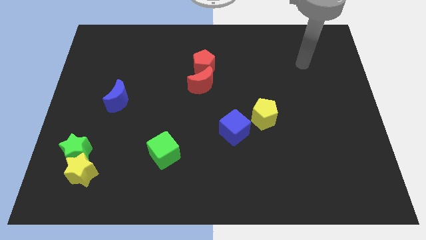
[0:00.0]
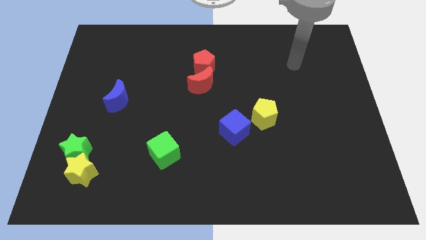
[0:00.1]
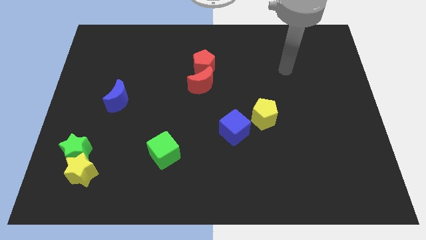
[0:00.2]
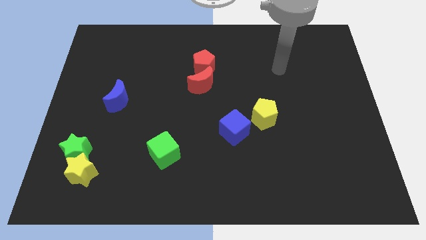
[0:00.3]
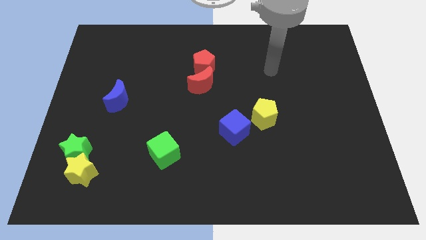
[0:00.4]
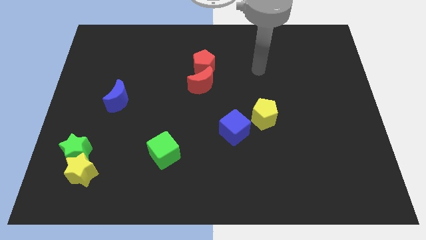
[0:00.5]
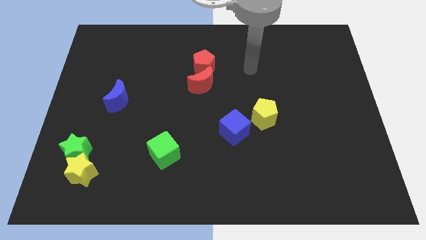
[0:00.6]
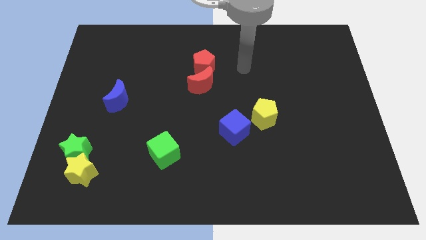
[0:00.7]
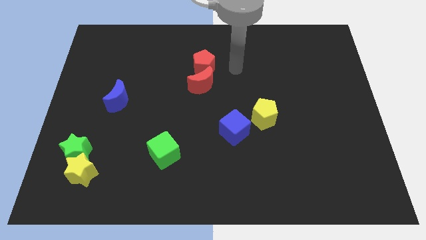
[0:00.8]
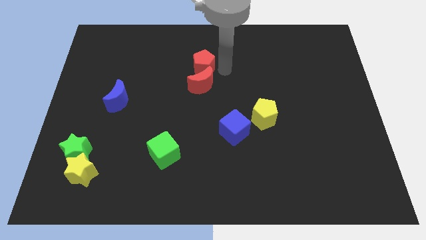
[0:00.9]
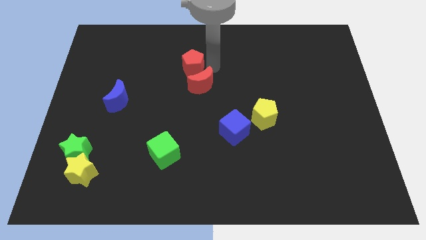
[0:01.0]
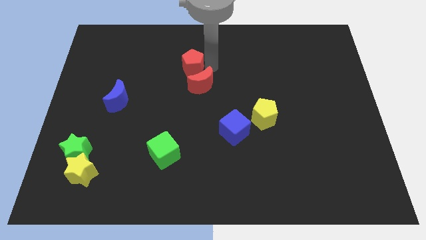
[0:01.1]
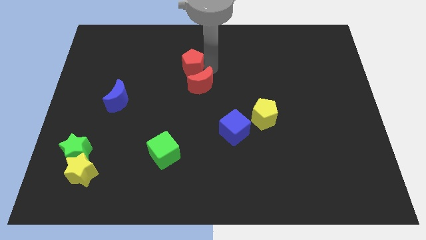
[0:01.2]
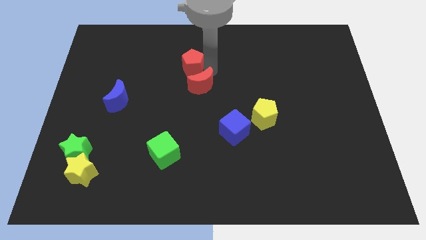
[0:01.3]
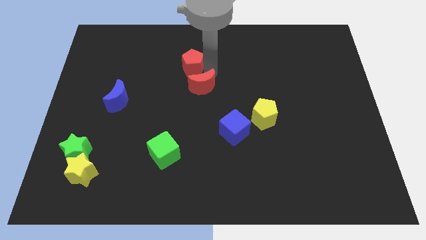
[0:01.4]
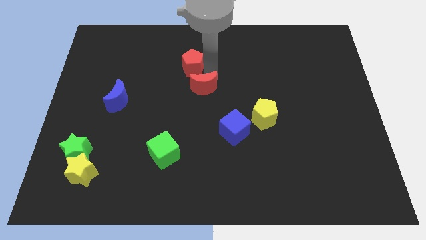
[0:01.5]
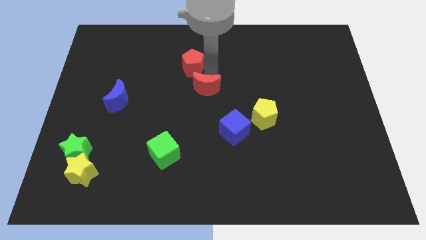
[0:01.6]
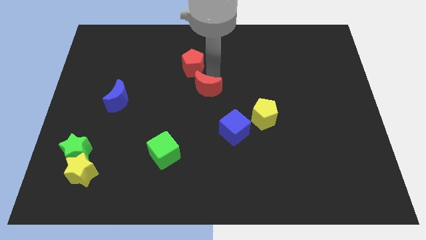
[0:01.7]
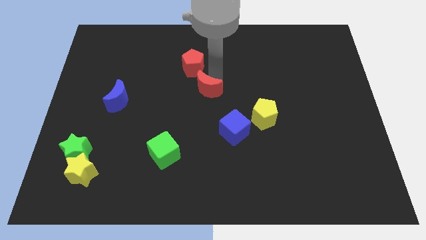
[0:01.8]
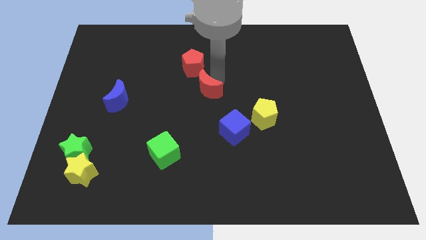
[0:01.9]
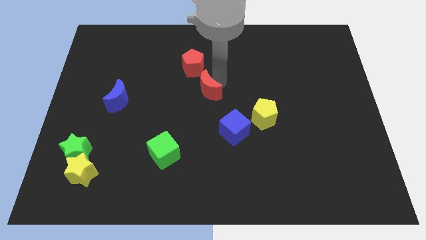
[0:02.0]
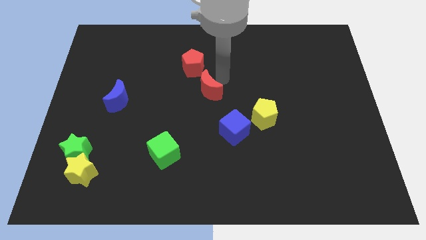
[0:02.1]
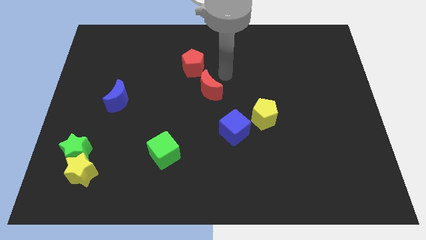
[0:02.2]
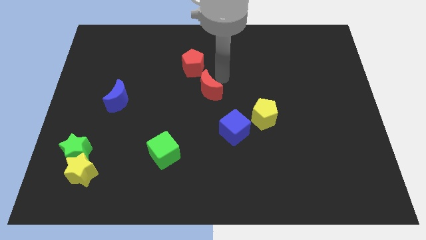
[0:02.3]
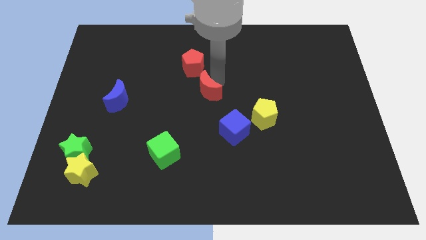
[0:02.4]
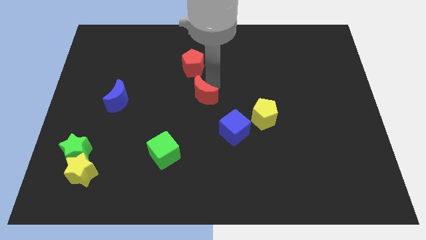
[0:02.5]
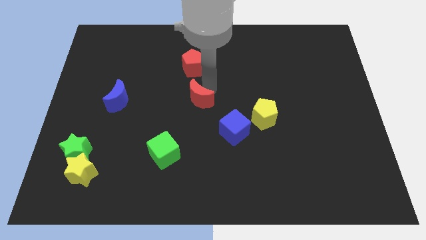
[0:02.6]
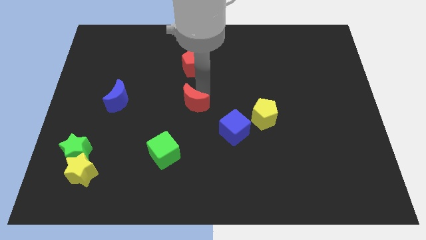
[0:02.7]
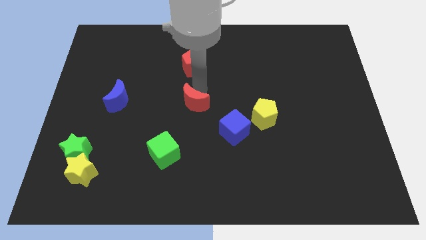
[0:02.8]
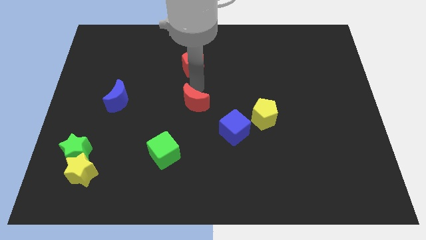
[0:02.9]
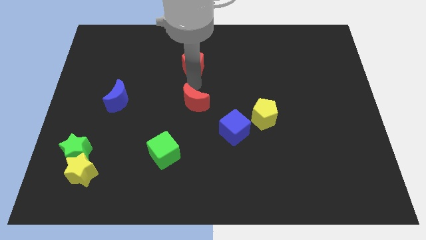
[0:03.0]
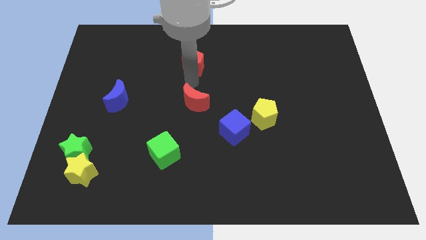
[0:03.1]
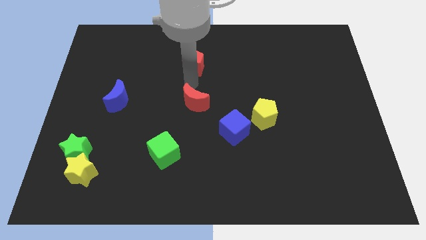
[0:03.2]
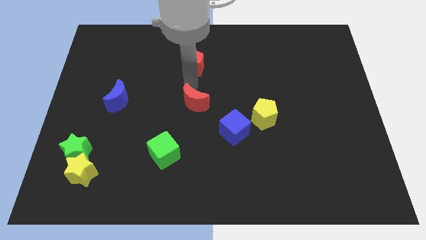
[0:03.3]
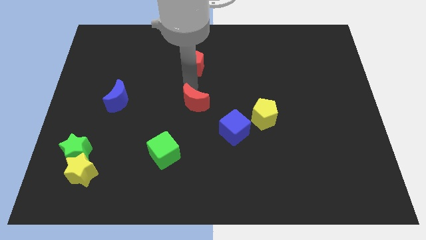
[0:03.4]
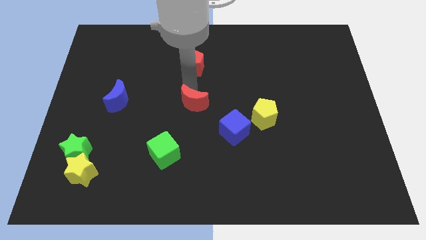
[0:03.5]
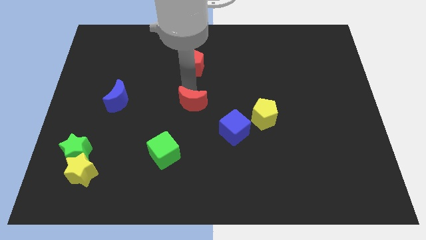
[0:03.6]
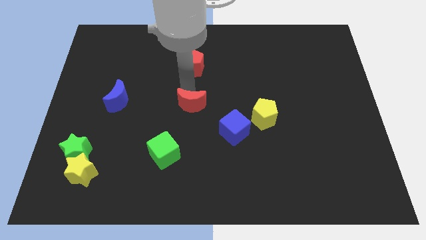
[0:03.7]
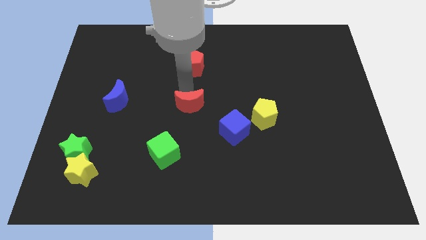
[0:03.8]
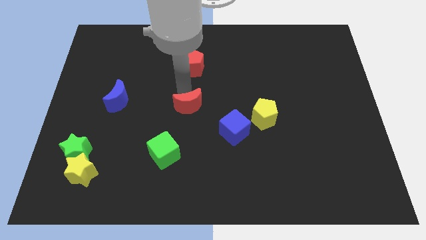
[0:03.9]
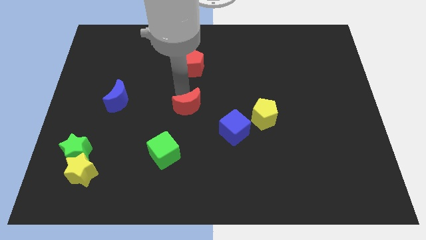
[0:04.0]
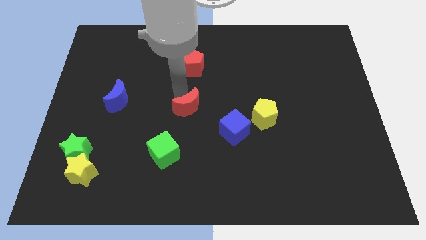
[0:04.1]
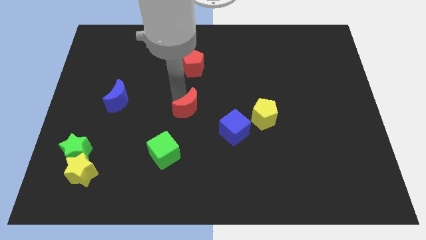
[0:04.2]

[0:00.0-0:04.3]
slightly move the red moon downwards

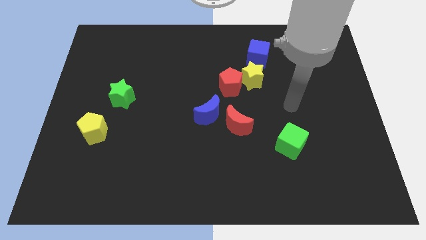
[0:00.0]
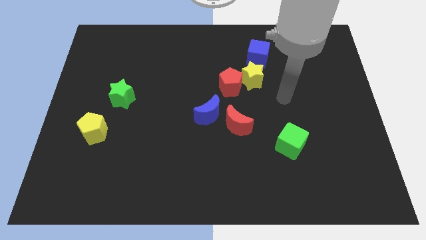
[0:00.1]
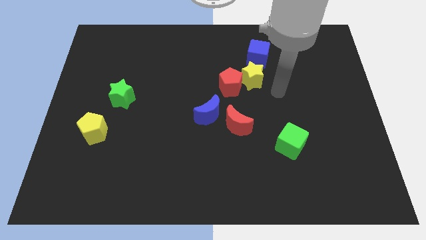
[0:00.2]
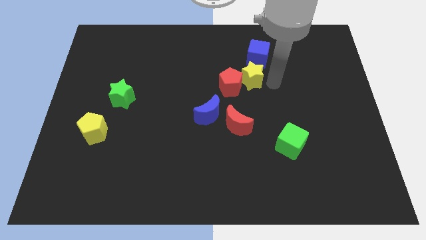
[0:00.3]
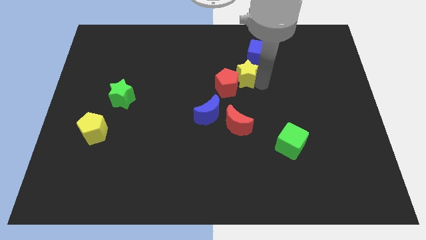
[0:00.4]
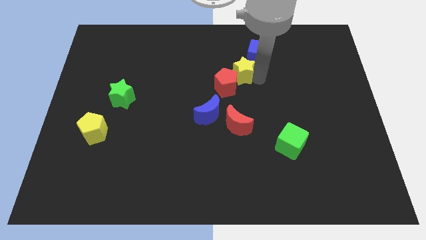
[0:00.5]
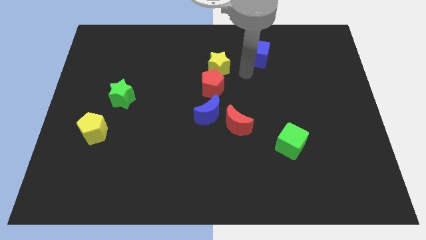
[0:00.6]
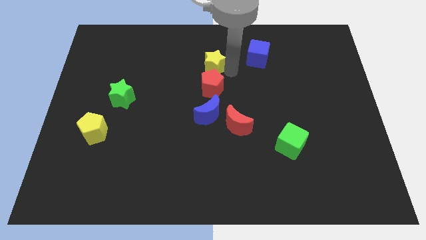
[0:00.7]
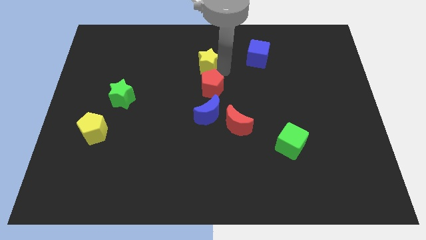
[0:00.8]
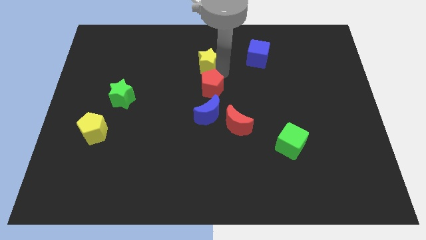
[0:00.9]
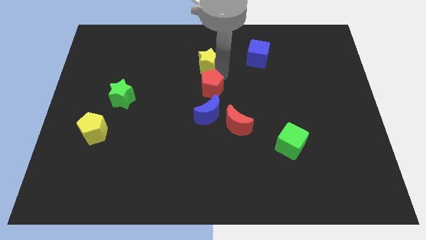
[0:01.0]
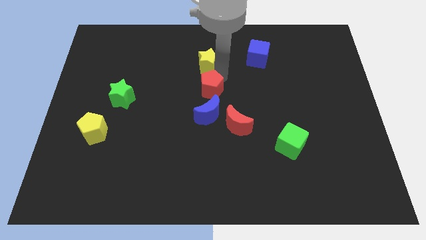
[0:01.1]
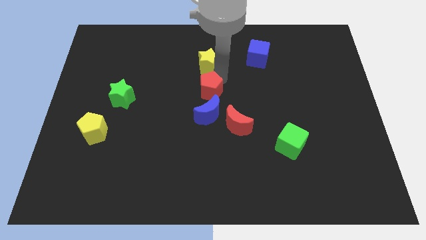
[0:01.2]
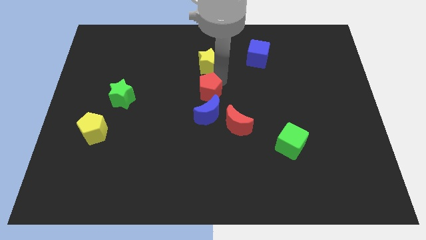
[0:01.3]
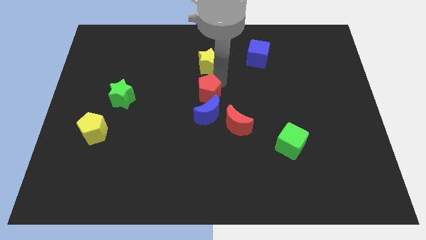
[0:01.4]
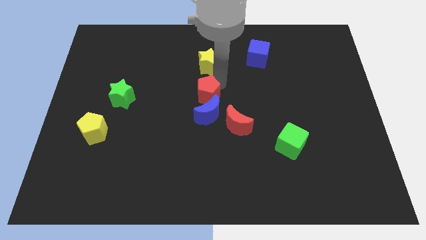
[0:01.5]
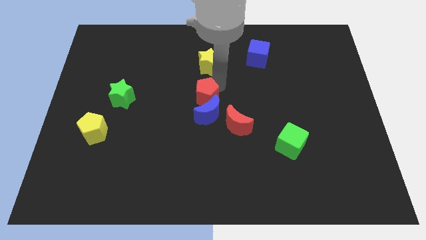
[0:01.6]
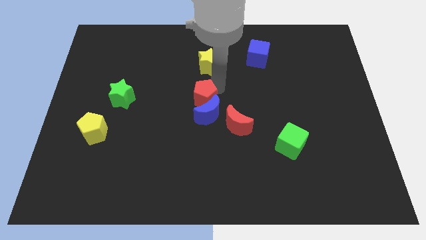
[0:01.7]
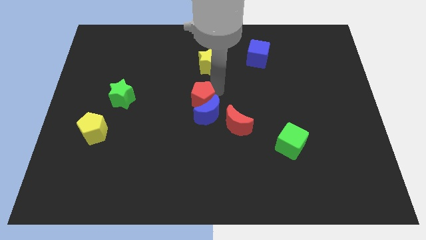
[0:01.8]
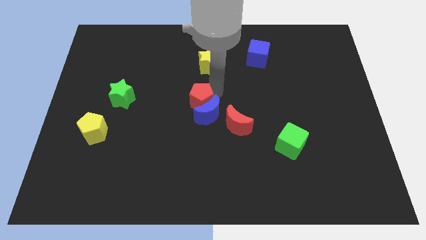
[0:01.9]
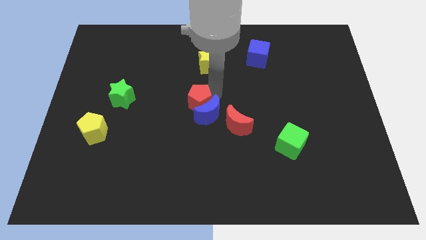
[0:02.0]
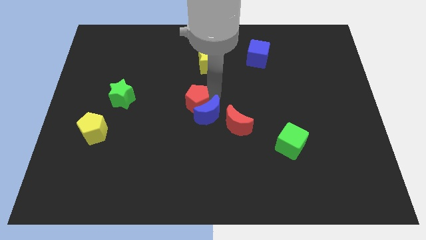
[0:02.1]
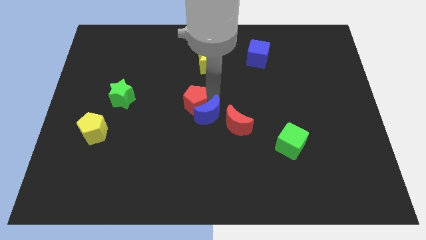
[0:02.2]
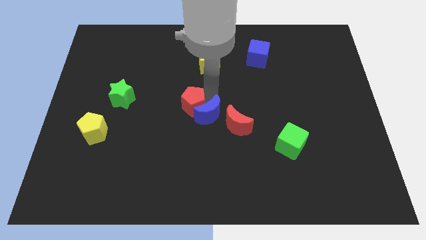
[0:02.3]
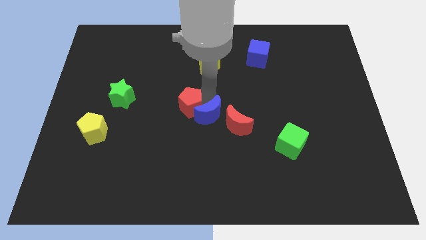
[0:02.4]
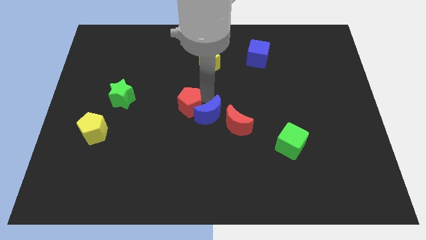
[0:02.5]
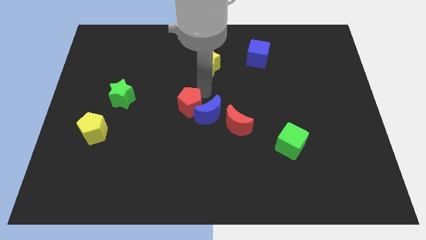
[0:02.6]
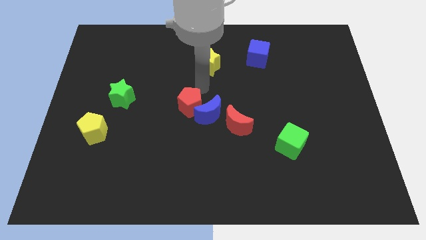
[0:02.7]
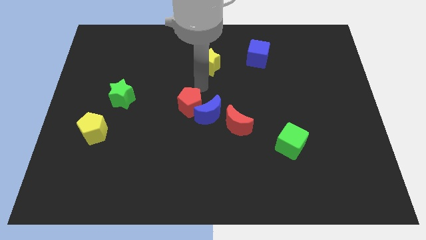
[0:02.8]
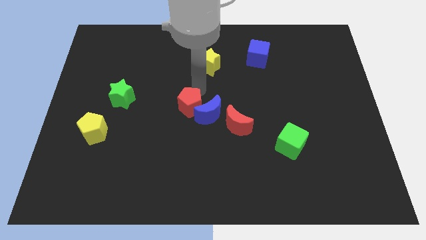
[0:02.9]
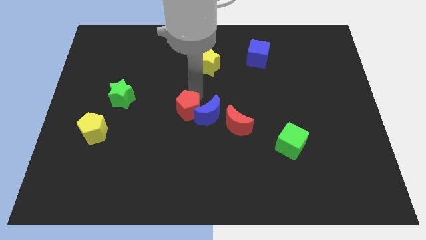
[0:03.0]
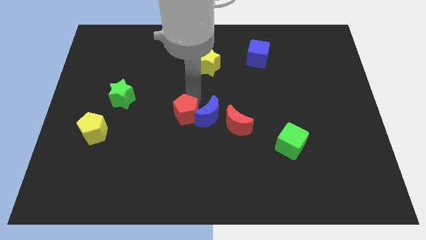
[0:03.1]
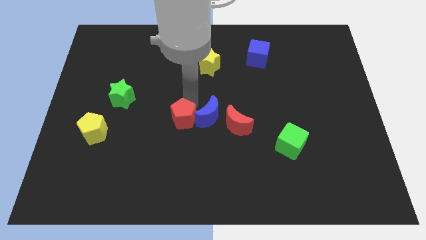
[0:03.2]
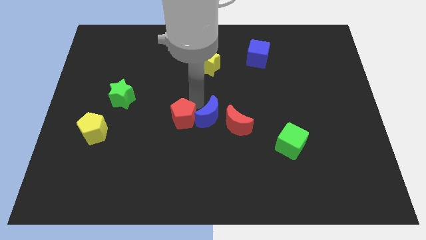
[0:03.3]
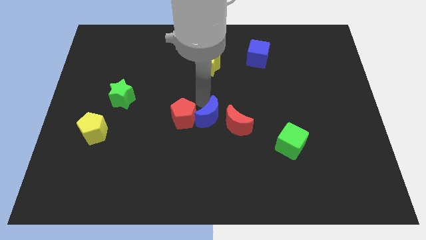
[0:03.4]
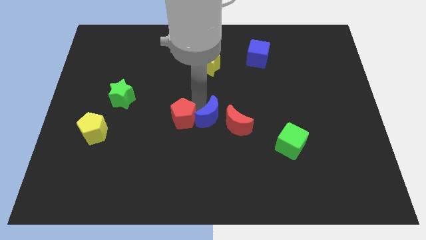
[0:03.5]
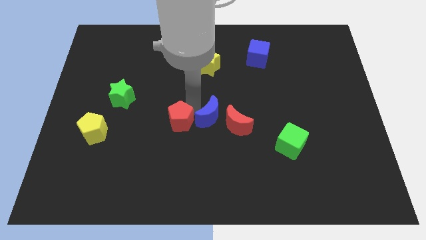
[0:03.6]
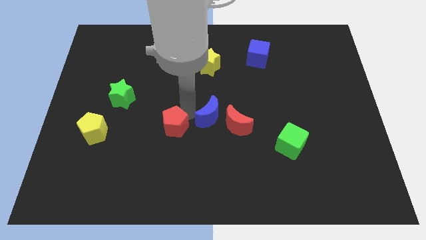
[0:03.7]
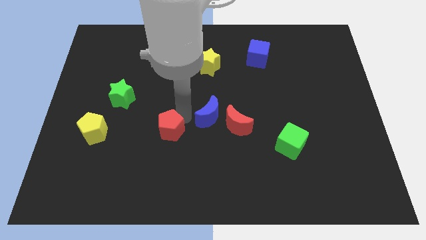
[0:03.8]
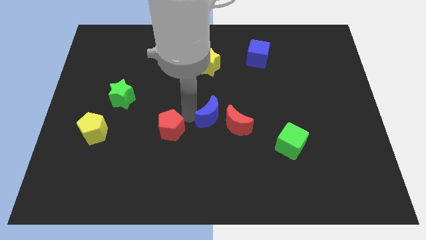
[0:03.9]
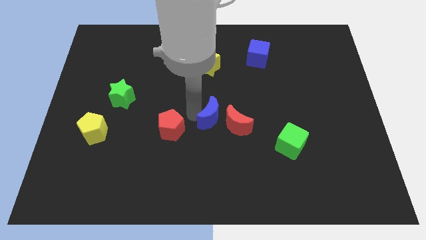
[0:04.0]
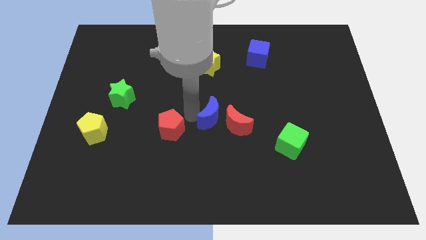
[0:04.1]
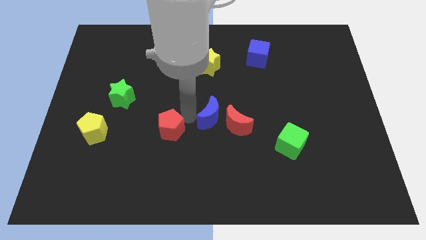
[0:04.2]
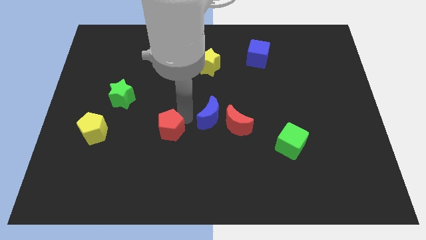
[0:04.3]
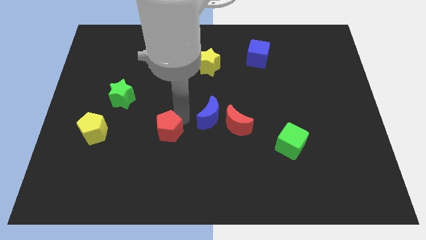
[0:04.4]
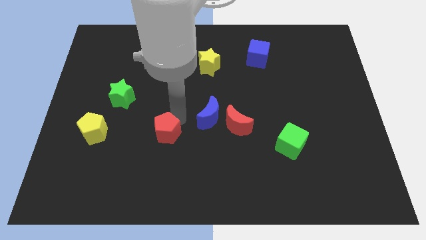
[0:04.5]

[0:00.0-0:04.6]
move the red pentagon diagonally downwards and to the left
